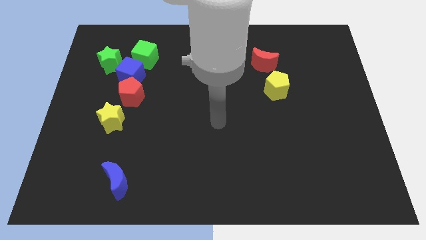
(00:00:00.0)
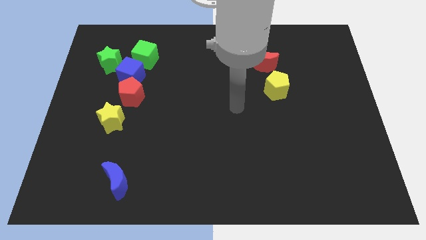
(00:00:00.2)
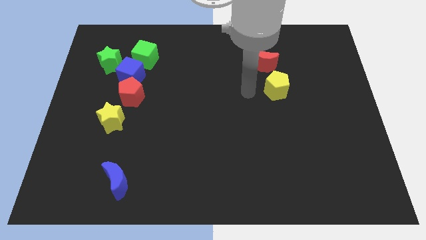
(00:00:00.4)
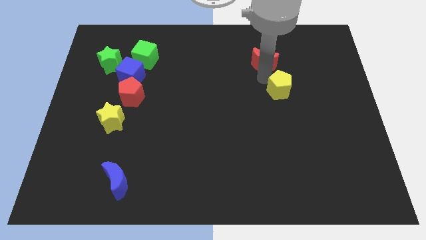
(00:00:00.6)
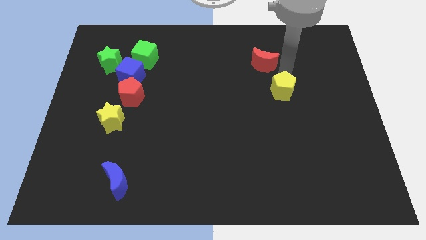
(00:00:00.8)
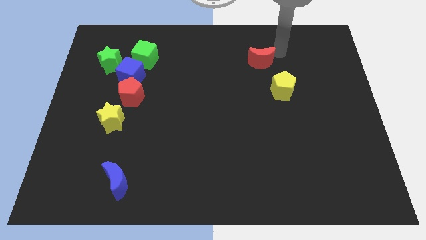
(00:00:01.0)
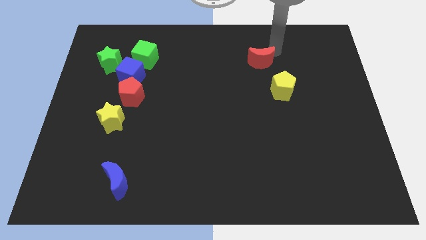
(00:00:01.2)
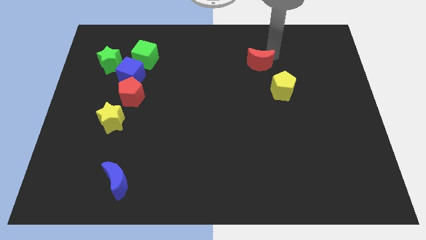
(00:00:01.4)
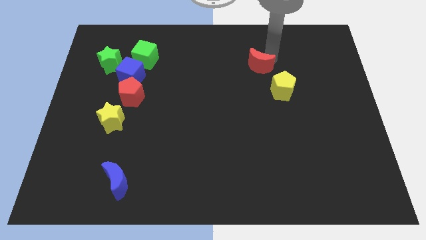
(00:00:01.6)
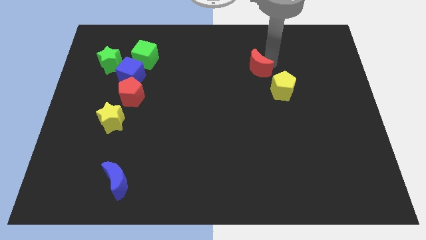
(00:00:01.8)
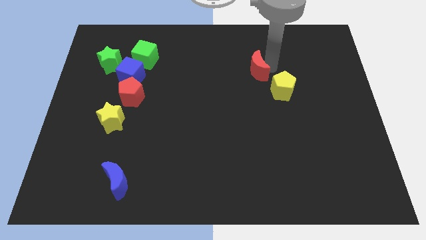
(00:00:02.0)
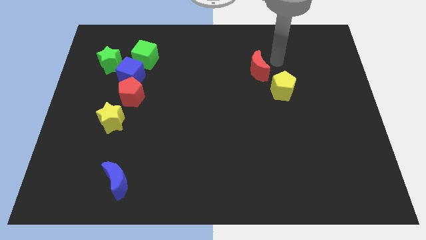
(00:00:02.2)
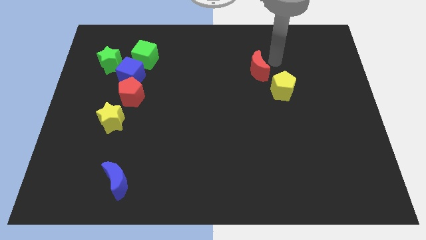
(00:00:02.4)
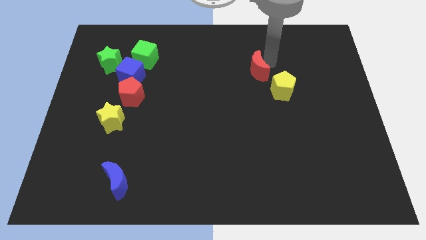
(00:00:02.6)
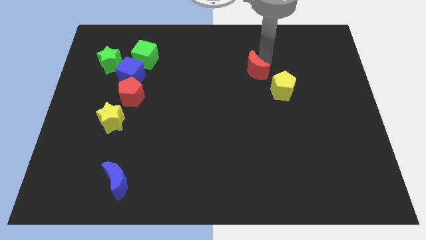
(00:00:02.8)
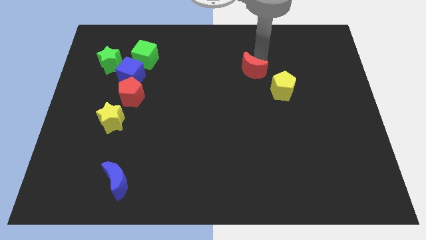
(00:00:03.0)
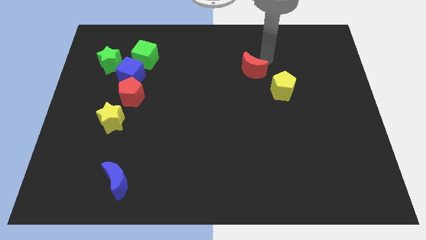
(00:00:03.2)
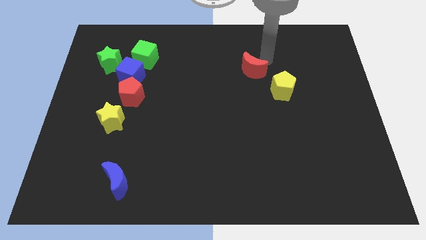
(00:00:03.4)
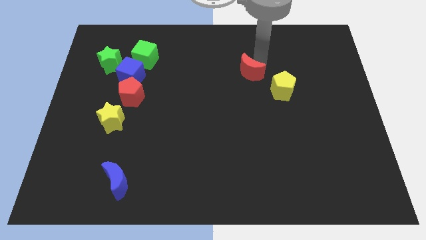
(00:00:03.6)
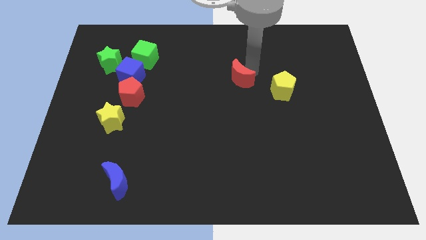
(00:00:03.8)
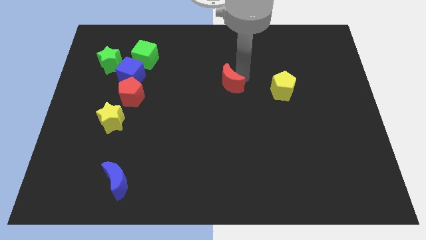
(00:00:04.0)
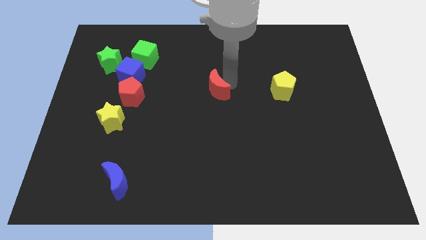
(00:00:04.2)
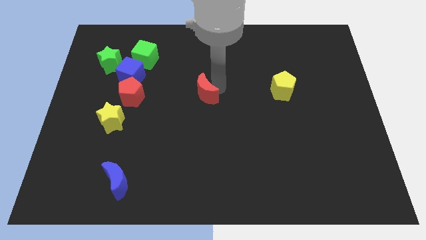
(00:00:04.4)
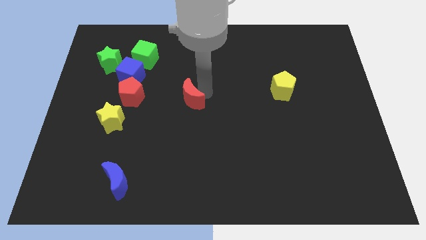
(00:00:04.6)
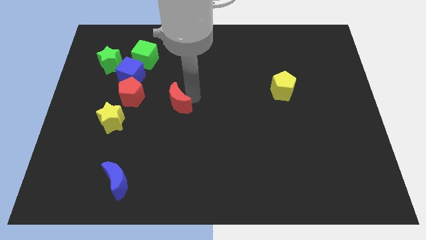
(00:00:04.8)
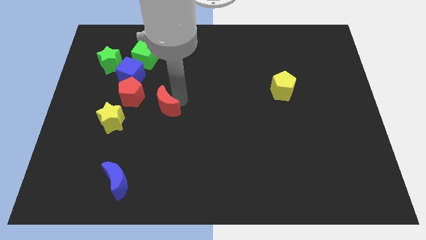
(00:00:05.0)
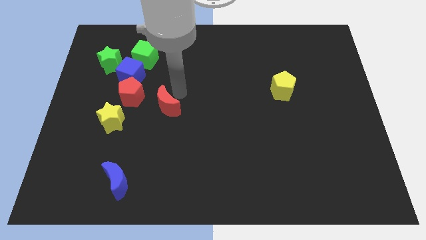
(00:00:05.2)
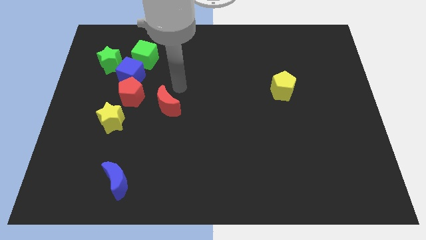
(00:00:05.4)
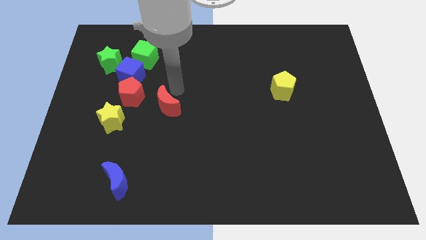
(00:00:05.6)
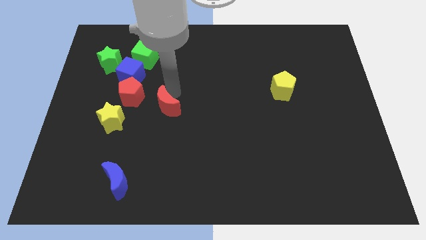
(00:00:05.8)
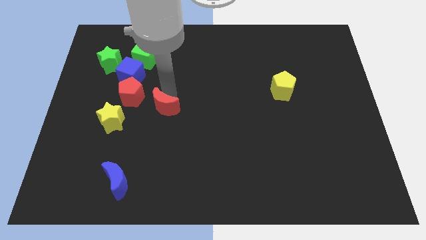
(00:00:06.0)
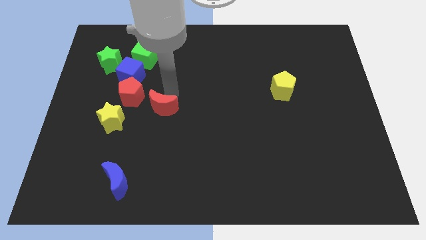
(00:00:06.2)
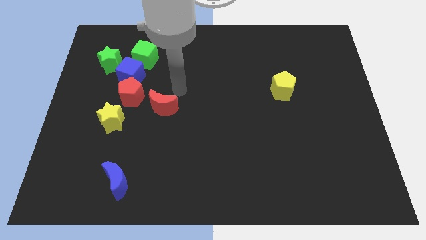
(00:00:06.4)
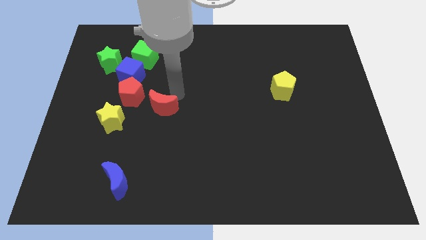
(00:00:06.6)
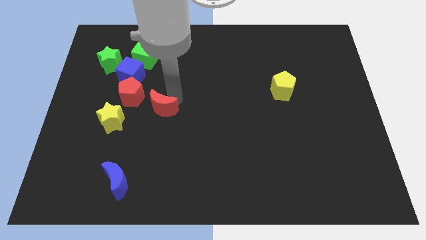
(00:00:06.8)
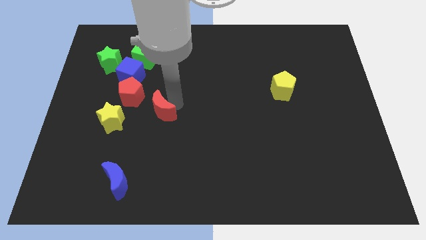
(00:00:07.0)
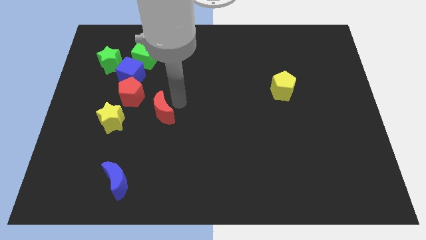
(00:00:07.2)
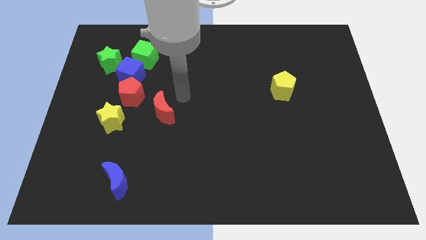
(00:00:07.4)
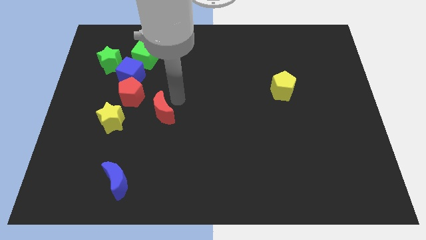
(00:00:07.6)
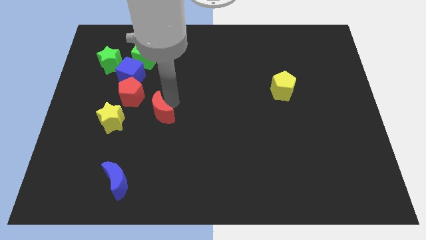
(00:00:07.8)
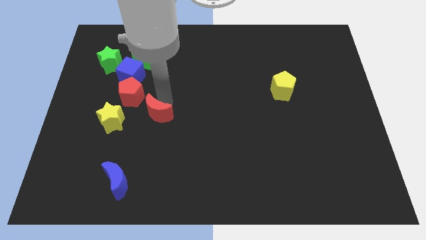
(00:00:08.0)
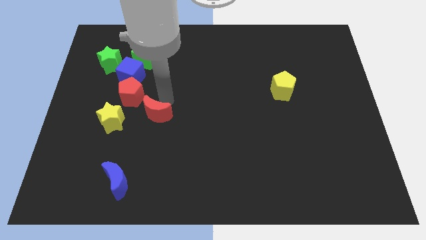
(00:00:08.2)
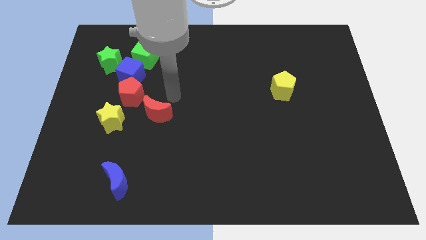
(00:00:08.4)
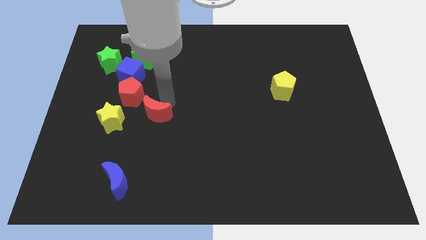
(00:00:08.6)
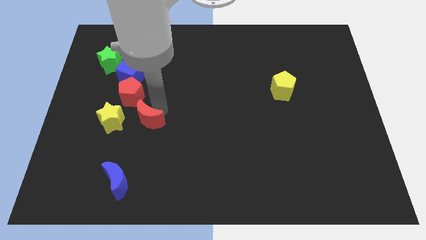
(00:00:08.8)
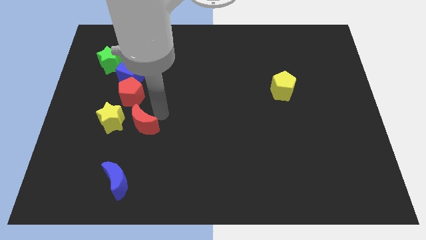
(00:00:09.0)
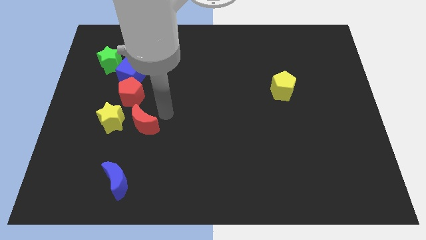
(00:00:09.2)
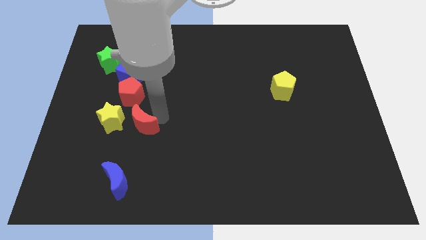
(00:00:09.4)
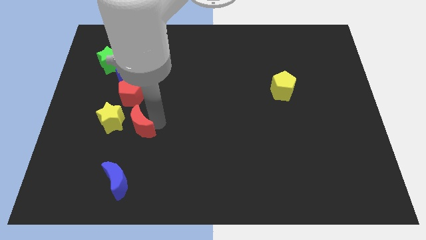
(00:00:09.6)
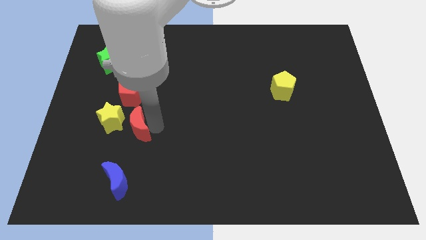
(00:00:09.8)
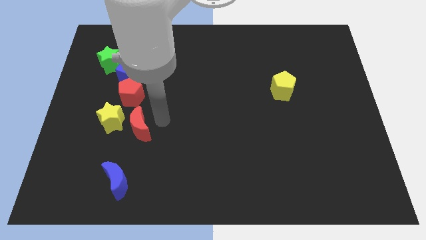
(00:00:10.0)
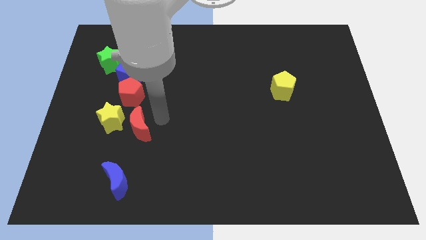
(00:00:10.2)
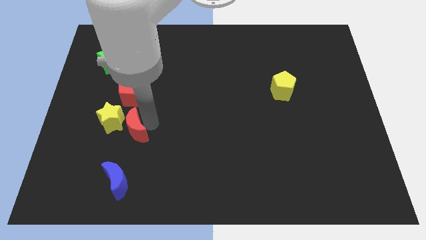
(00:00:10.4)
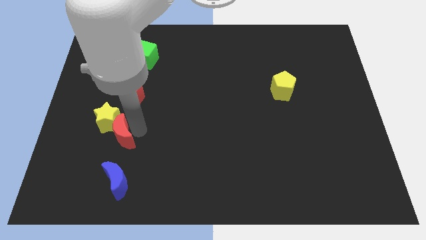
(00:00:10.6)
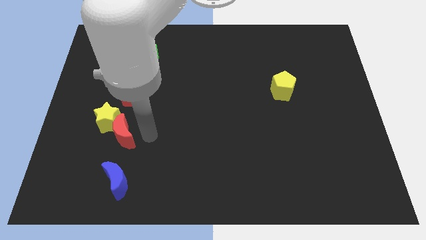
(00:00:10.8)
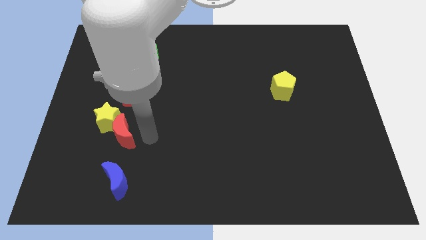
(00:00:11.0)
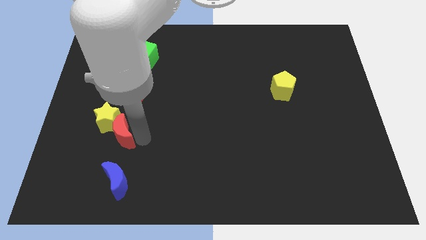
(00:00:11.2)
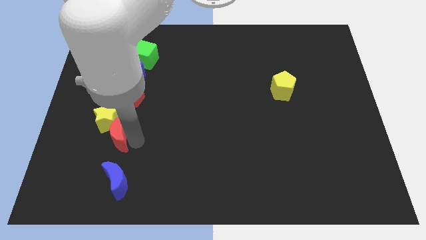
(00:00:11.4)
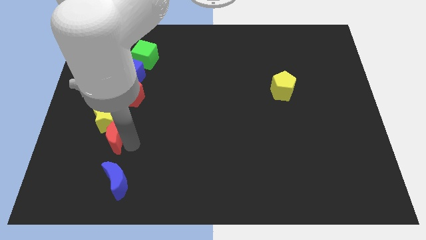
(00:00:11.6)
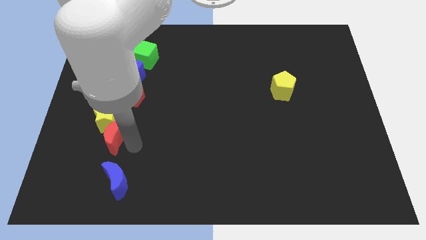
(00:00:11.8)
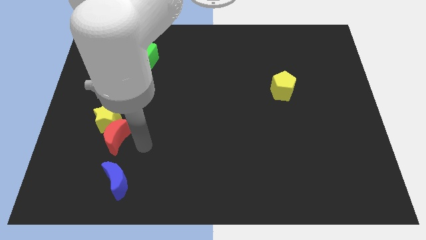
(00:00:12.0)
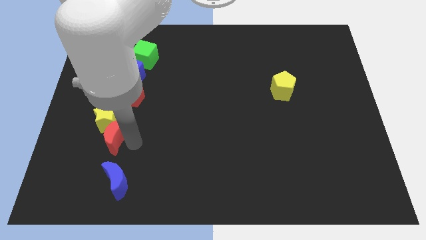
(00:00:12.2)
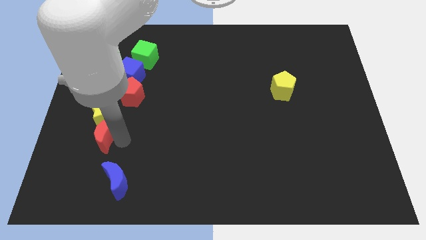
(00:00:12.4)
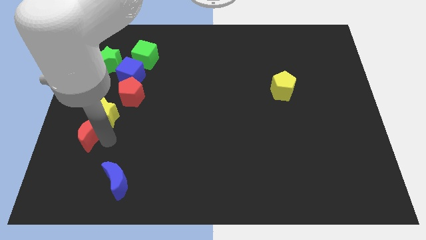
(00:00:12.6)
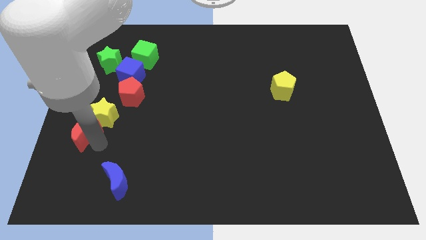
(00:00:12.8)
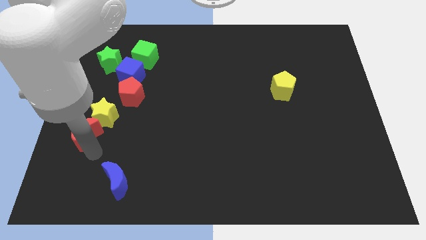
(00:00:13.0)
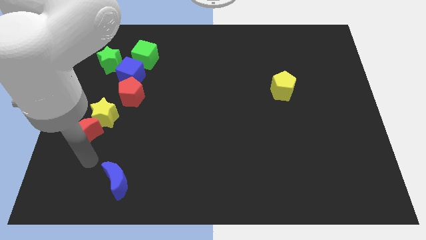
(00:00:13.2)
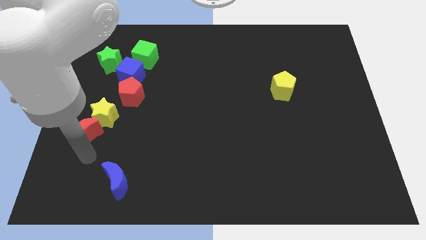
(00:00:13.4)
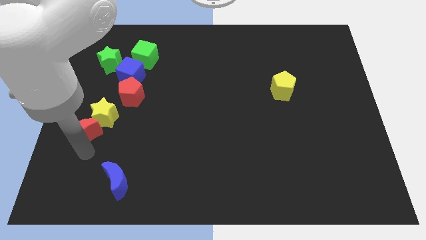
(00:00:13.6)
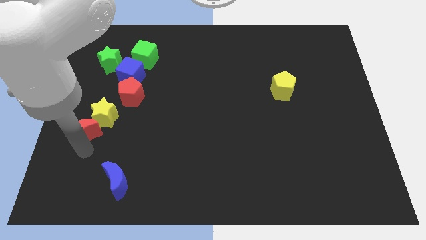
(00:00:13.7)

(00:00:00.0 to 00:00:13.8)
move the red moon to the left side of the board
